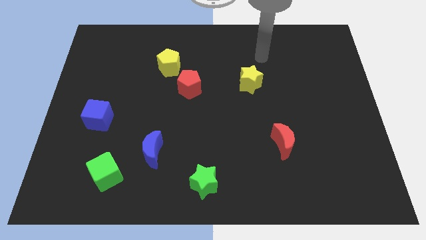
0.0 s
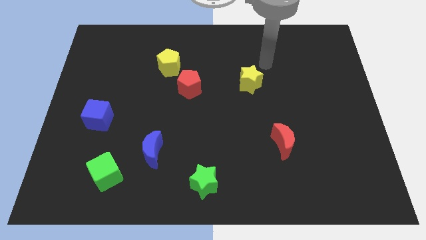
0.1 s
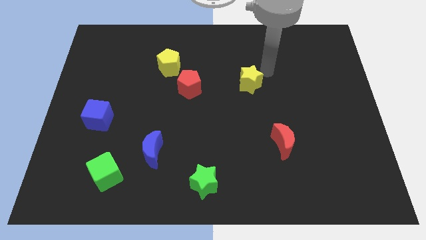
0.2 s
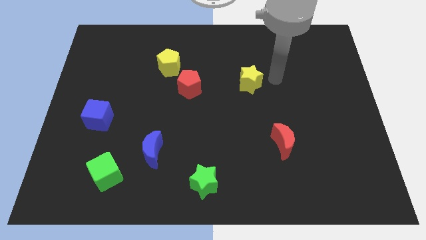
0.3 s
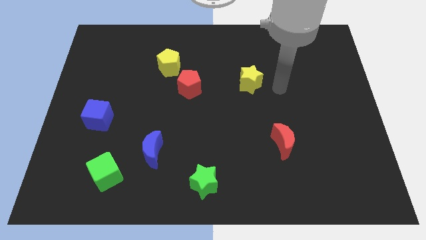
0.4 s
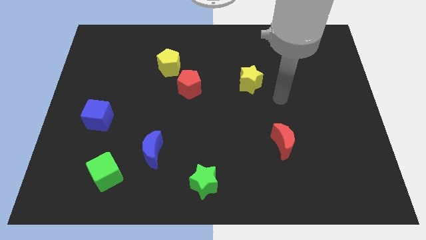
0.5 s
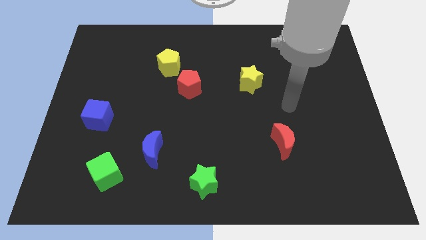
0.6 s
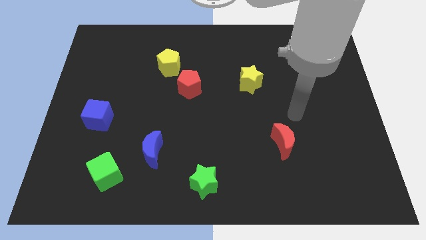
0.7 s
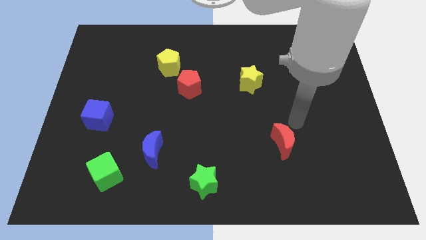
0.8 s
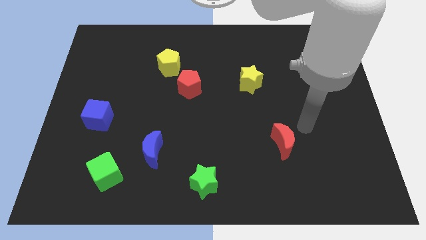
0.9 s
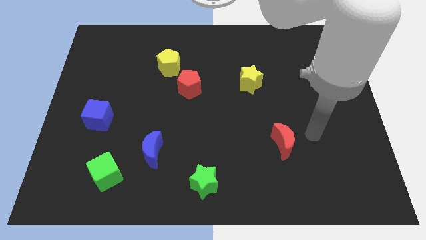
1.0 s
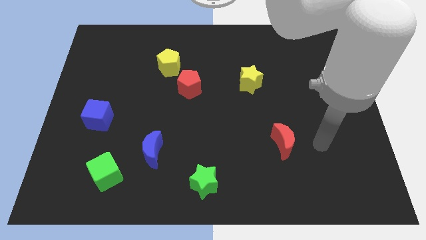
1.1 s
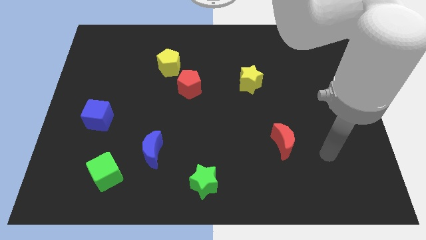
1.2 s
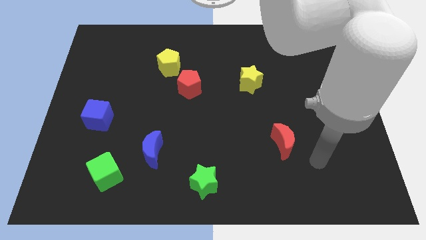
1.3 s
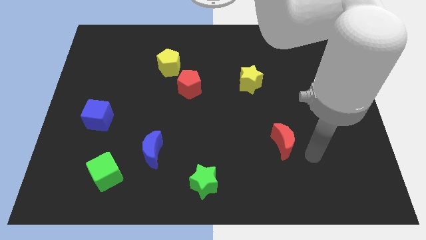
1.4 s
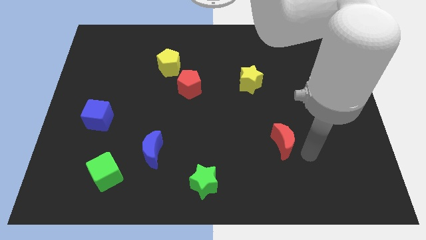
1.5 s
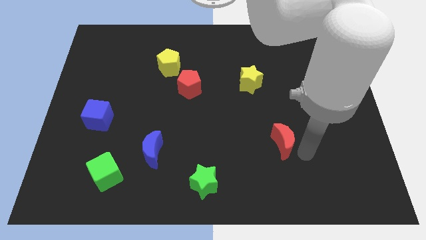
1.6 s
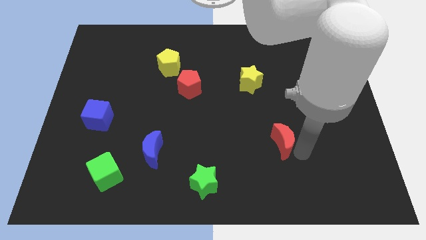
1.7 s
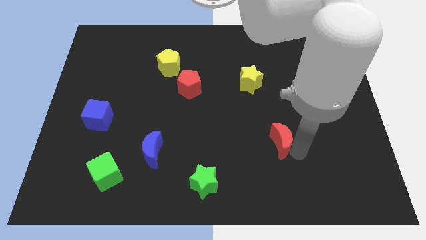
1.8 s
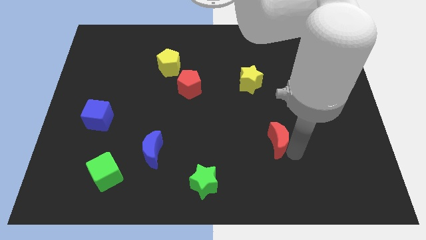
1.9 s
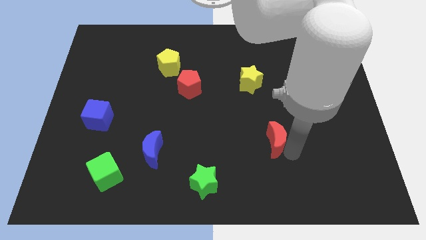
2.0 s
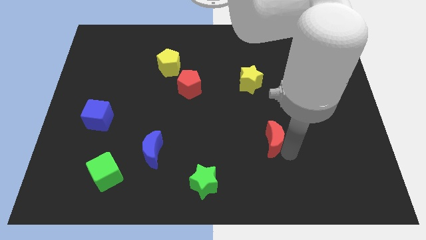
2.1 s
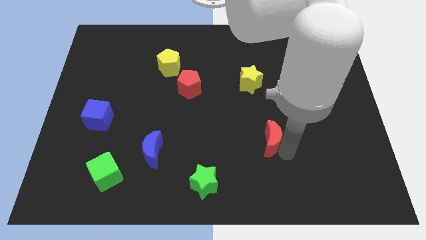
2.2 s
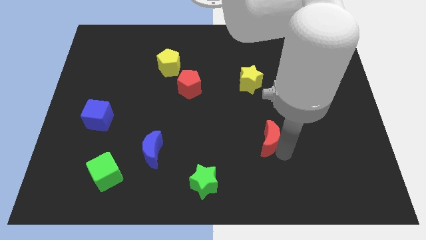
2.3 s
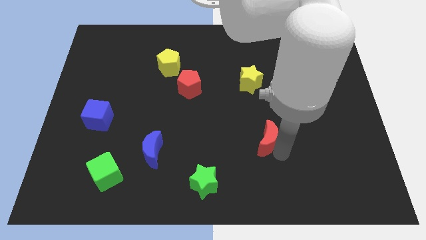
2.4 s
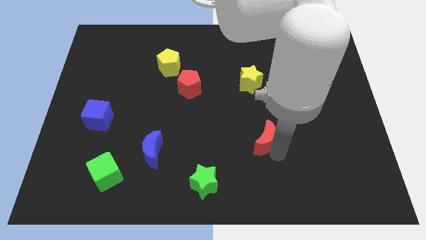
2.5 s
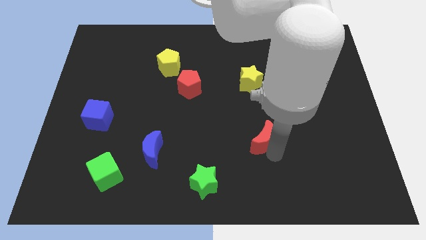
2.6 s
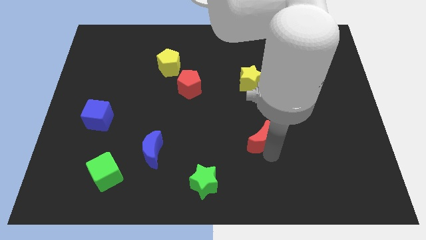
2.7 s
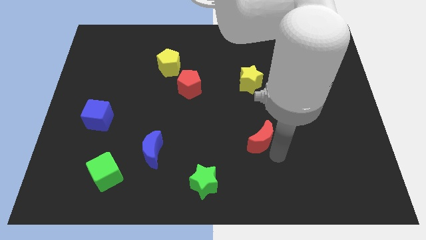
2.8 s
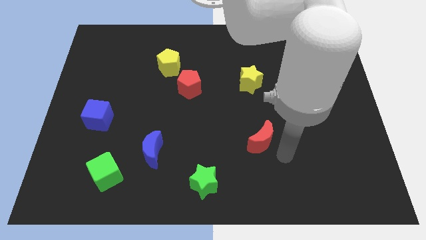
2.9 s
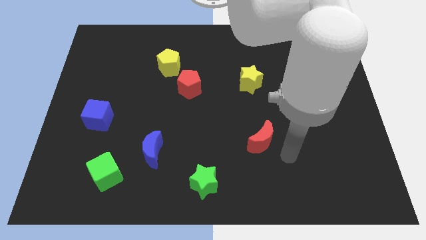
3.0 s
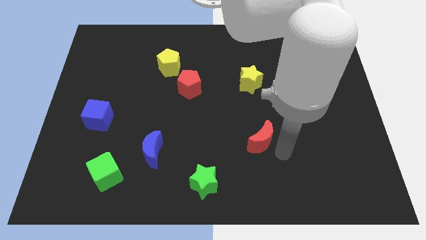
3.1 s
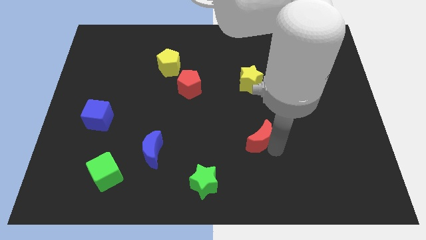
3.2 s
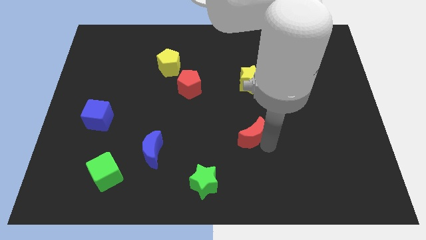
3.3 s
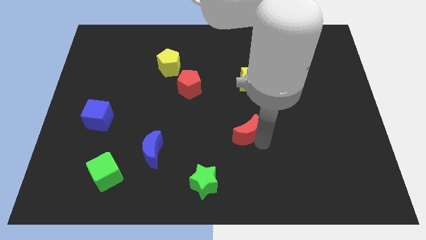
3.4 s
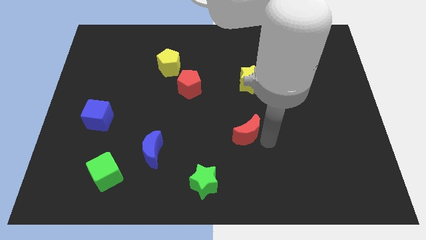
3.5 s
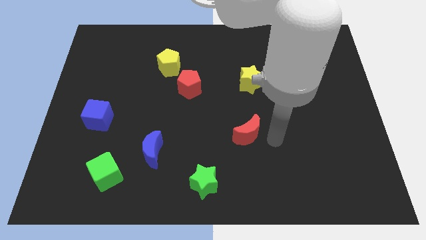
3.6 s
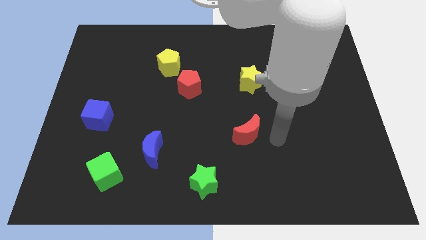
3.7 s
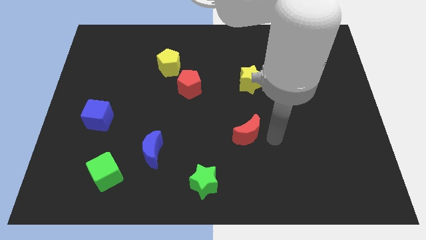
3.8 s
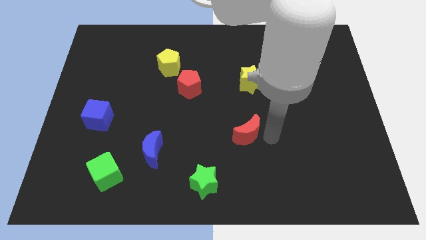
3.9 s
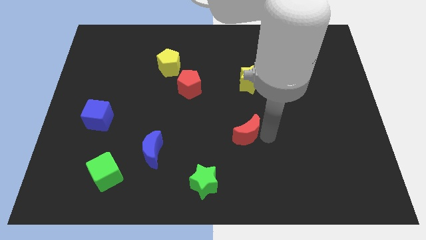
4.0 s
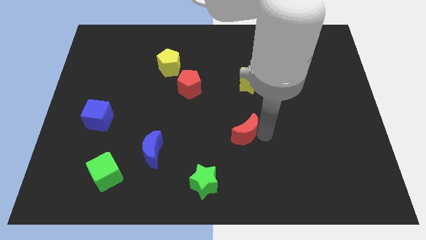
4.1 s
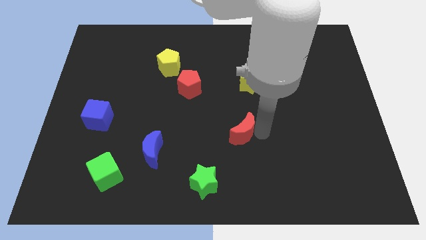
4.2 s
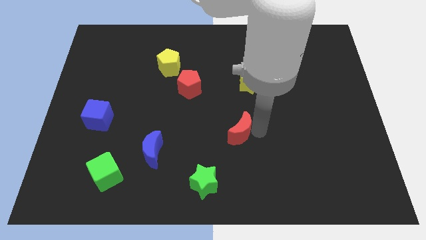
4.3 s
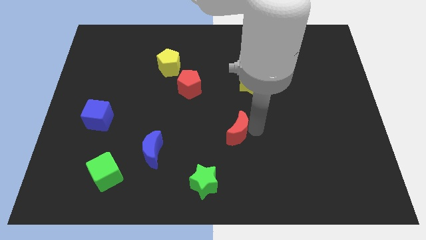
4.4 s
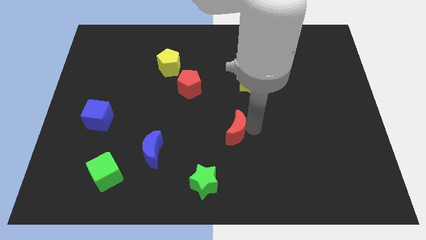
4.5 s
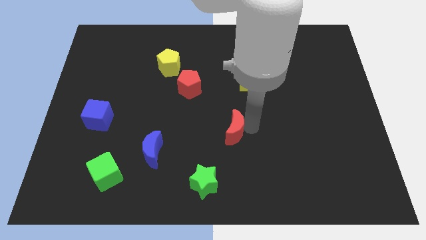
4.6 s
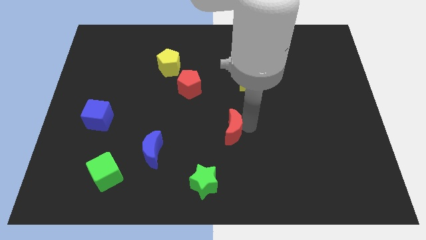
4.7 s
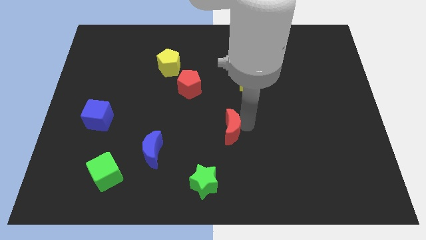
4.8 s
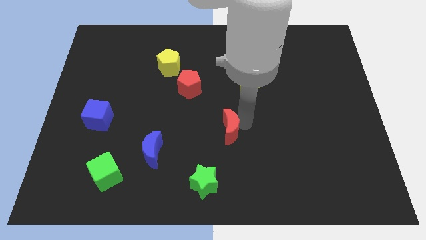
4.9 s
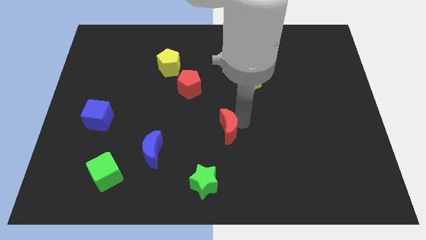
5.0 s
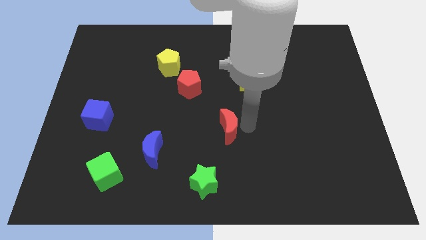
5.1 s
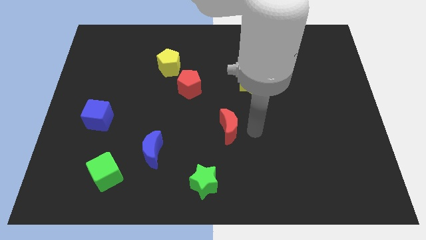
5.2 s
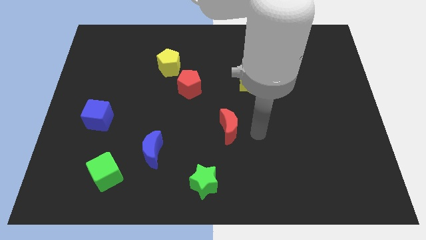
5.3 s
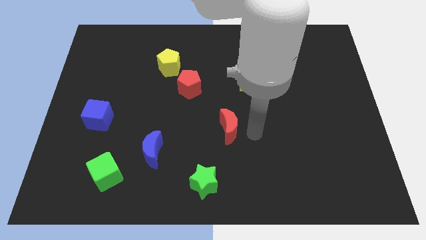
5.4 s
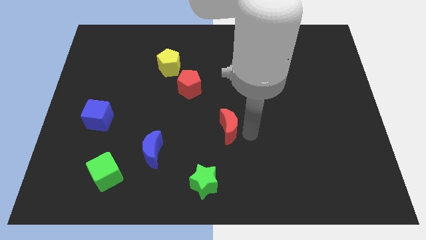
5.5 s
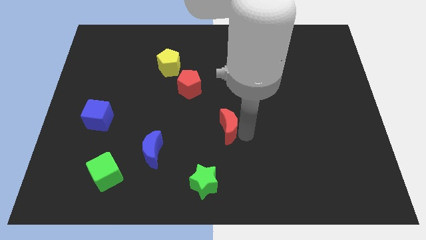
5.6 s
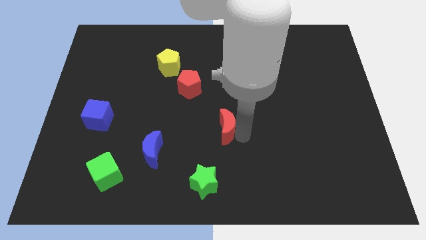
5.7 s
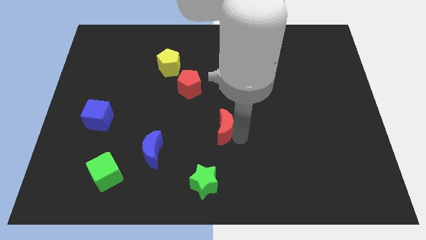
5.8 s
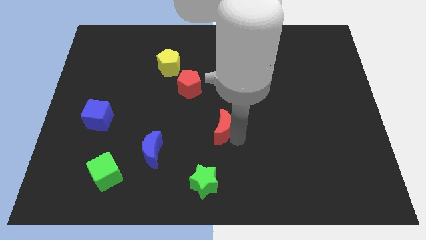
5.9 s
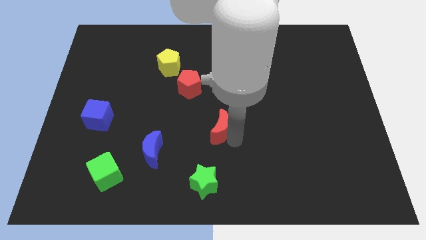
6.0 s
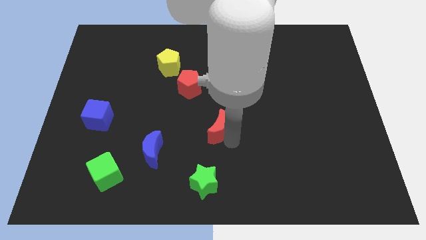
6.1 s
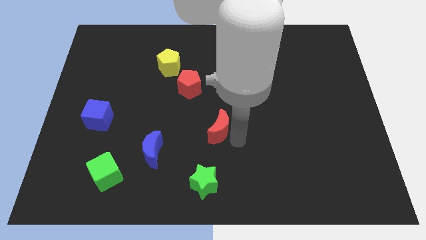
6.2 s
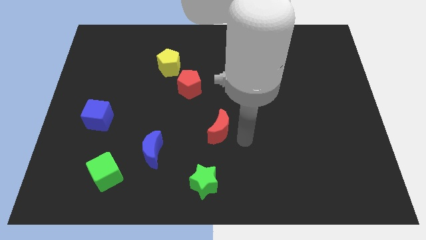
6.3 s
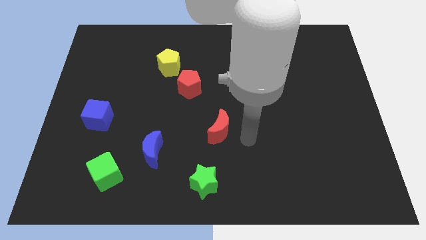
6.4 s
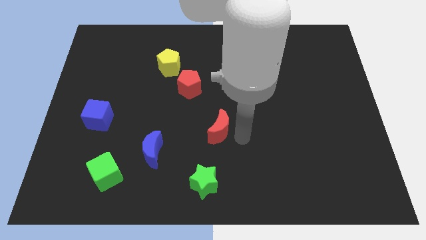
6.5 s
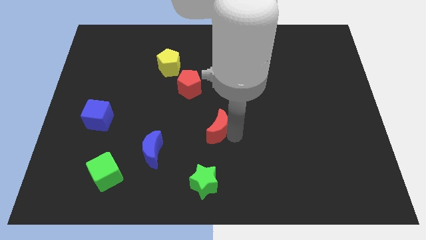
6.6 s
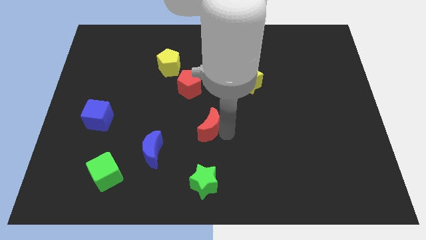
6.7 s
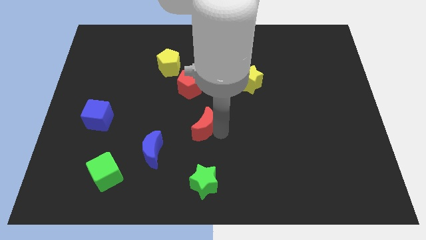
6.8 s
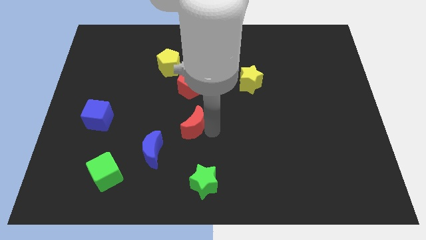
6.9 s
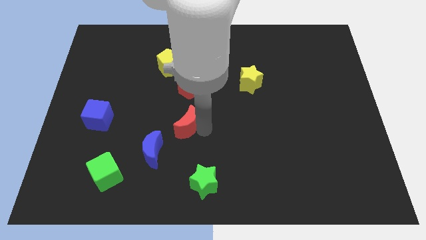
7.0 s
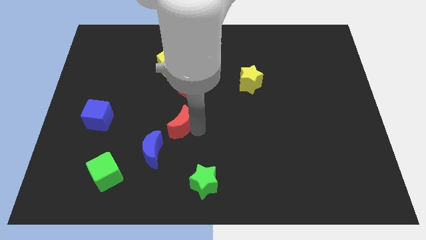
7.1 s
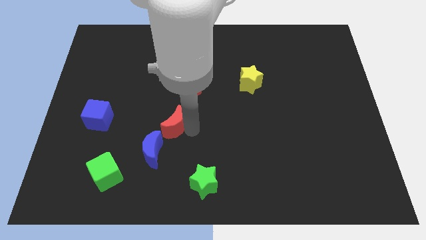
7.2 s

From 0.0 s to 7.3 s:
move the red moon to the top of the blue moon
